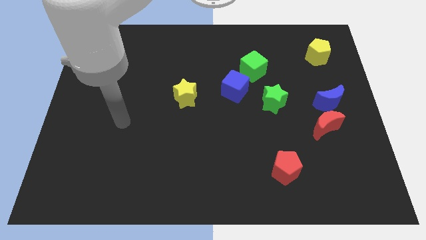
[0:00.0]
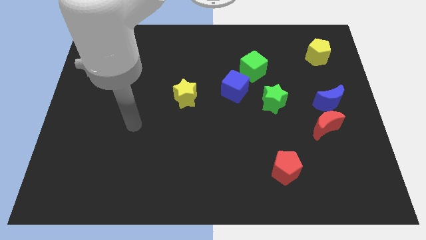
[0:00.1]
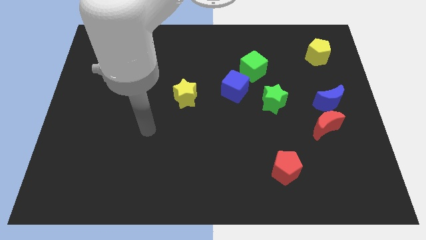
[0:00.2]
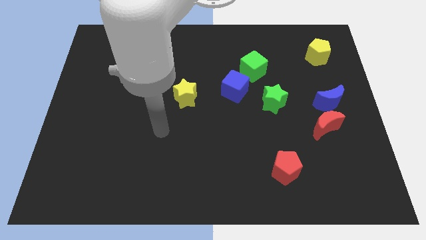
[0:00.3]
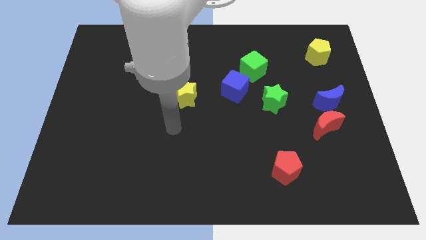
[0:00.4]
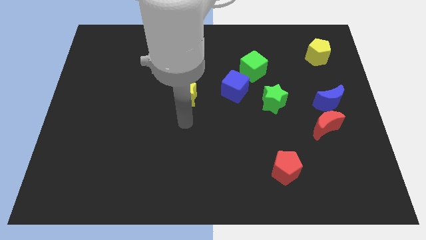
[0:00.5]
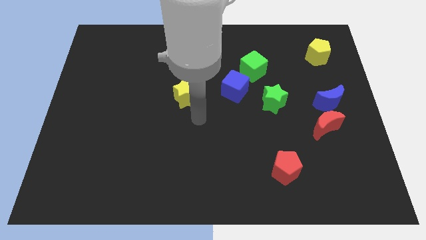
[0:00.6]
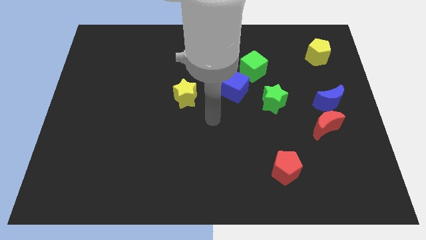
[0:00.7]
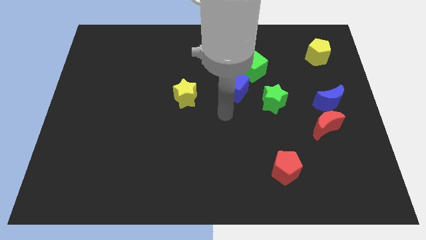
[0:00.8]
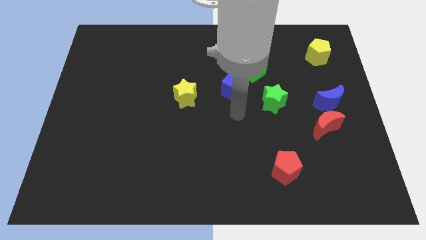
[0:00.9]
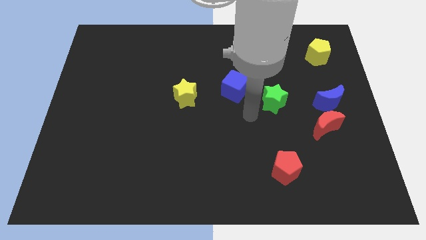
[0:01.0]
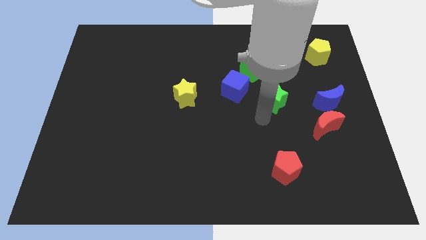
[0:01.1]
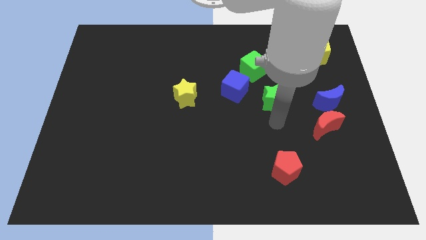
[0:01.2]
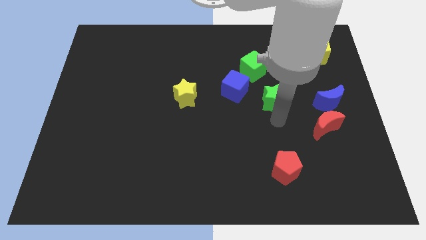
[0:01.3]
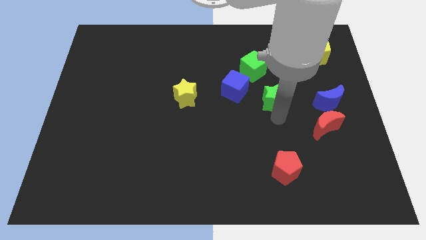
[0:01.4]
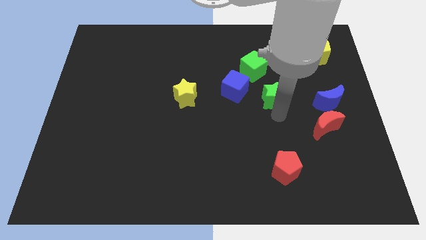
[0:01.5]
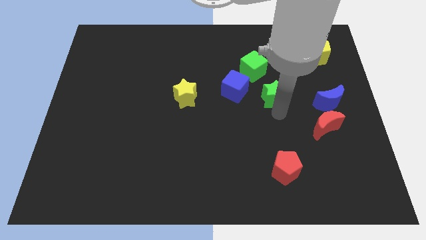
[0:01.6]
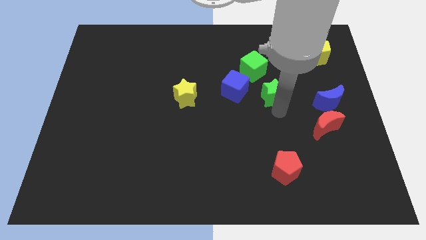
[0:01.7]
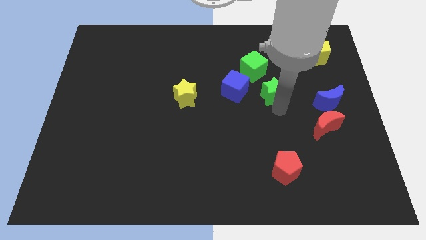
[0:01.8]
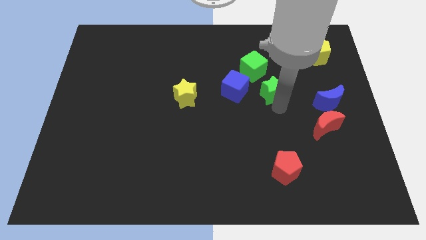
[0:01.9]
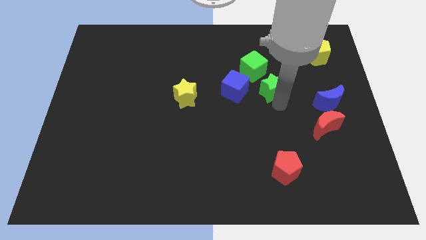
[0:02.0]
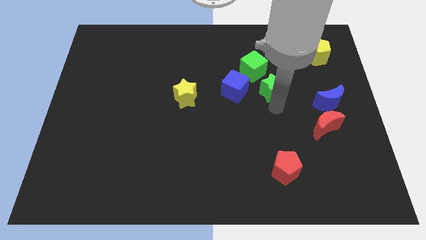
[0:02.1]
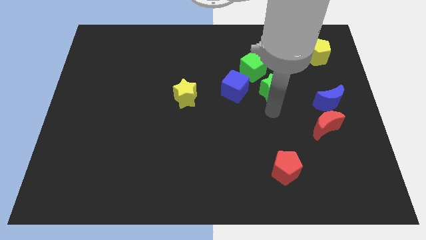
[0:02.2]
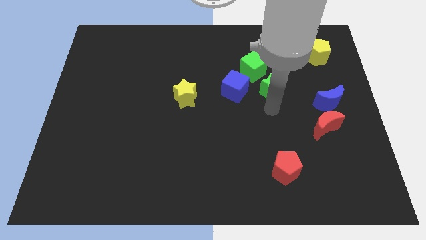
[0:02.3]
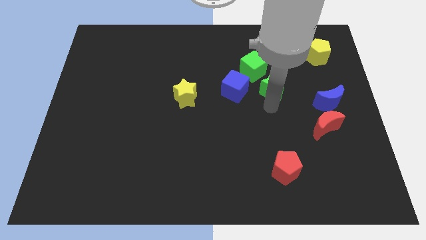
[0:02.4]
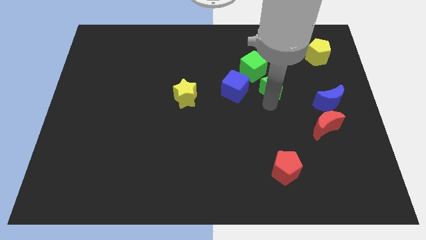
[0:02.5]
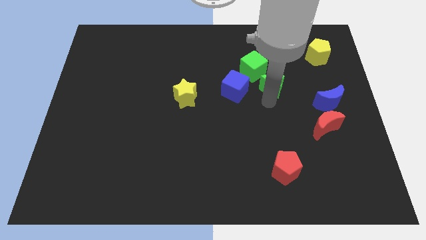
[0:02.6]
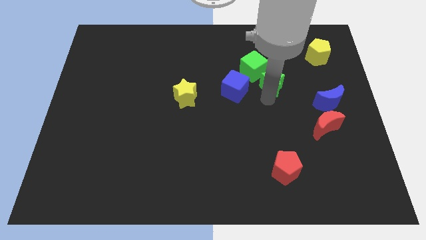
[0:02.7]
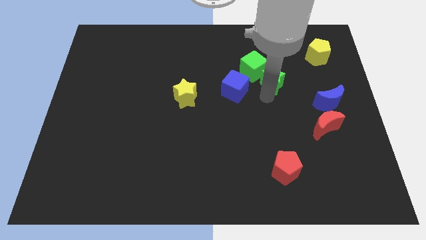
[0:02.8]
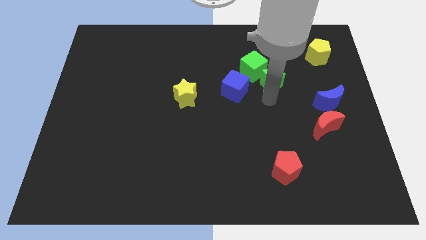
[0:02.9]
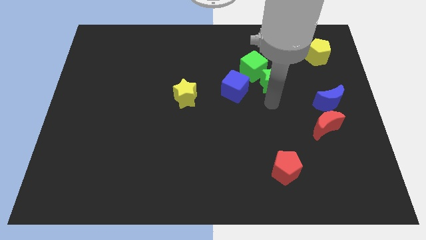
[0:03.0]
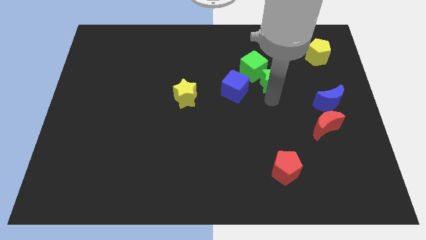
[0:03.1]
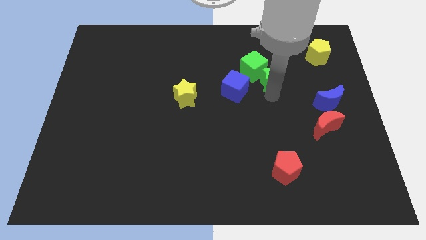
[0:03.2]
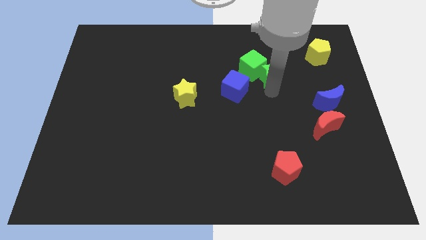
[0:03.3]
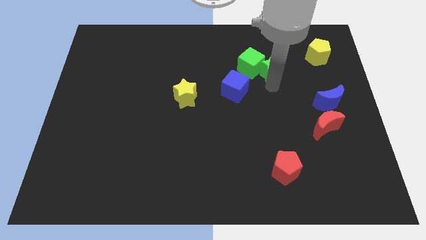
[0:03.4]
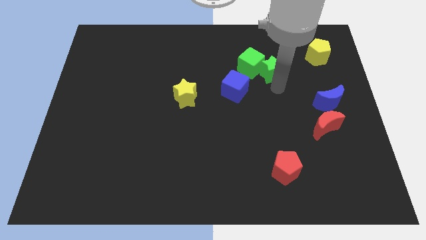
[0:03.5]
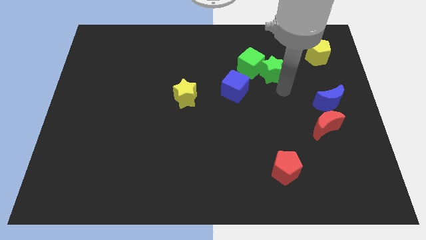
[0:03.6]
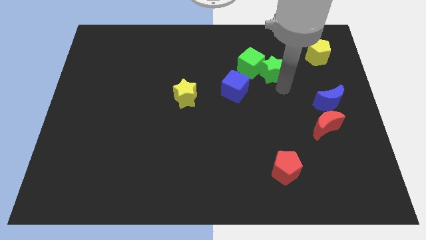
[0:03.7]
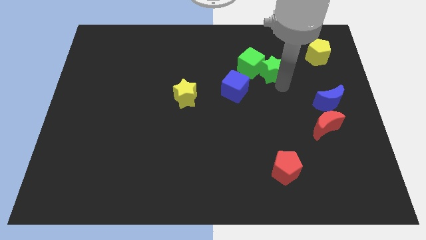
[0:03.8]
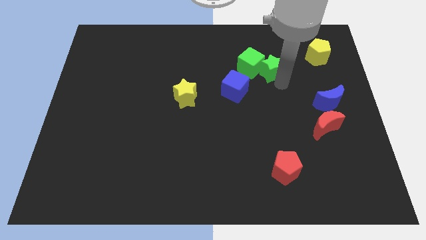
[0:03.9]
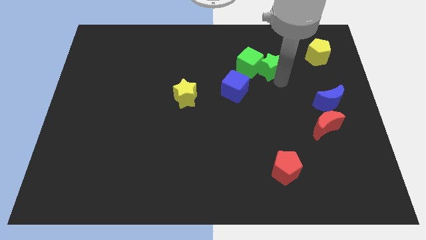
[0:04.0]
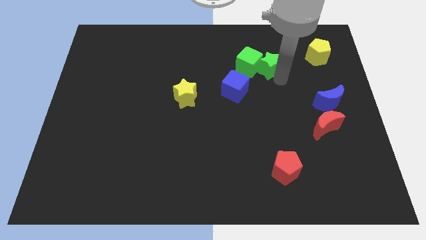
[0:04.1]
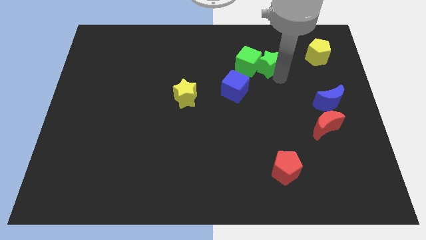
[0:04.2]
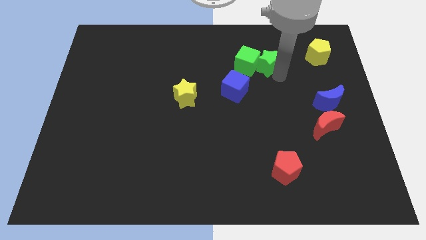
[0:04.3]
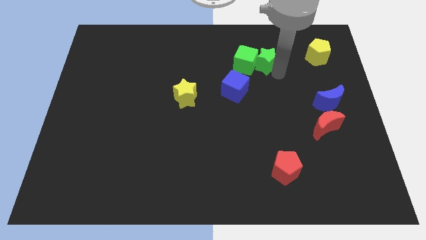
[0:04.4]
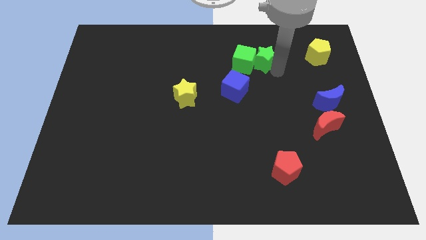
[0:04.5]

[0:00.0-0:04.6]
slightly move the green star upwards and left diagonally

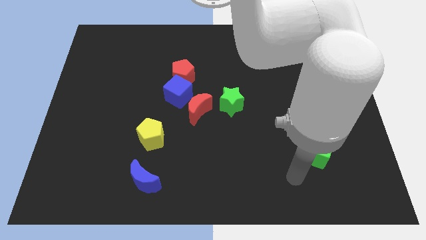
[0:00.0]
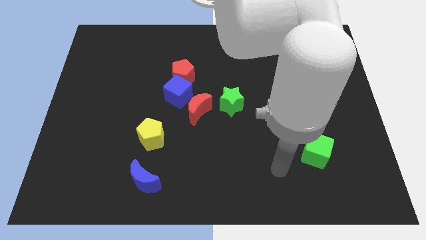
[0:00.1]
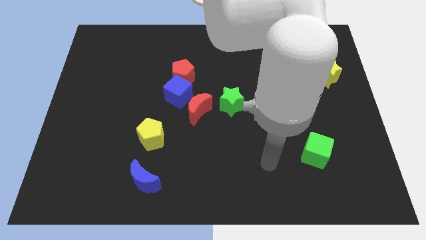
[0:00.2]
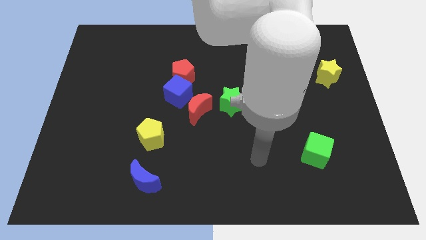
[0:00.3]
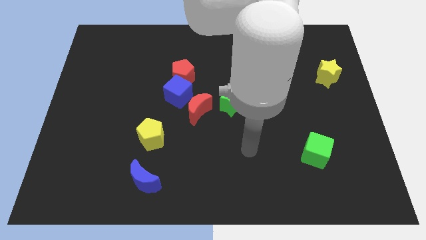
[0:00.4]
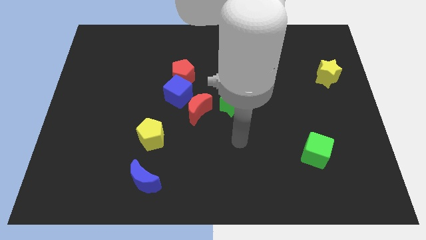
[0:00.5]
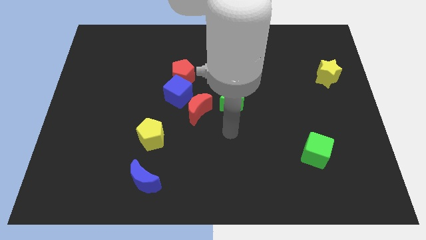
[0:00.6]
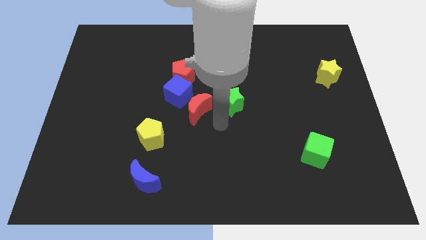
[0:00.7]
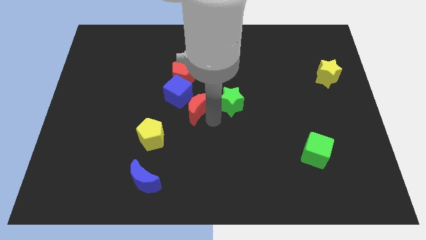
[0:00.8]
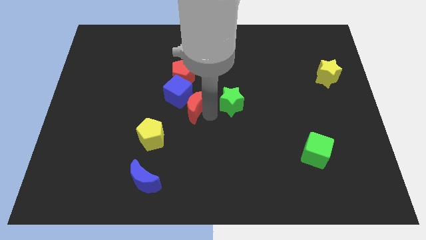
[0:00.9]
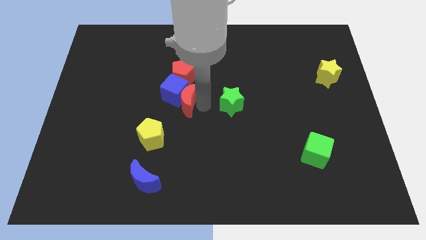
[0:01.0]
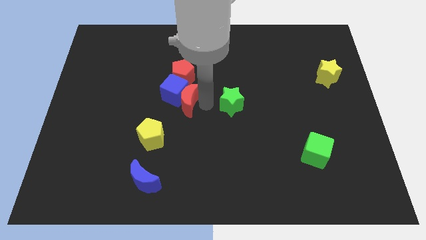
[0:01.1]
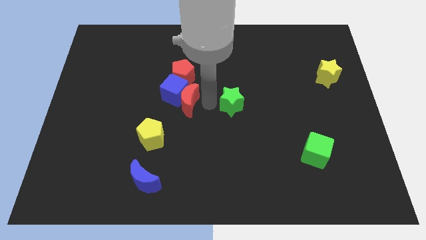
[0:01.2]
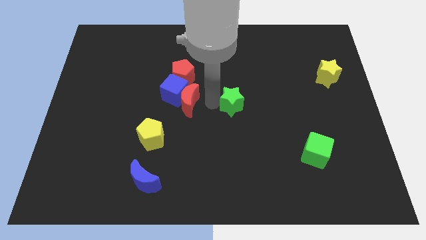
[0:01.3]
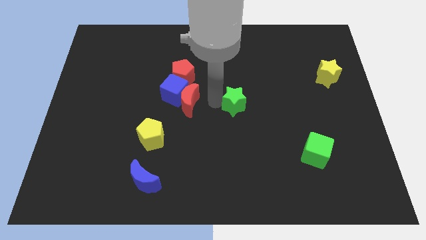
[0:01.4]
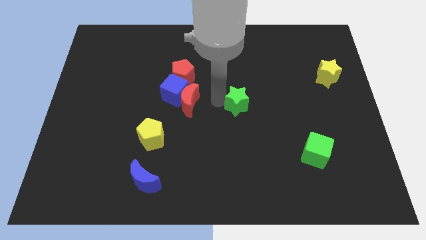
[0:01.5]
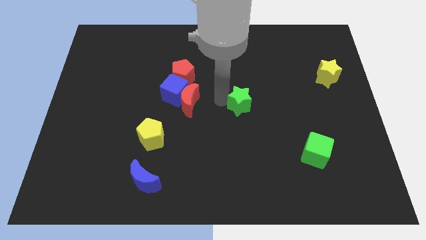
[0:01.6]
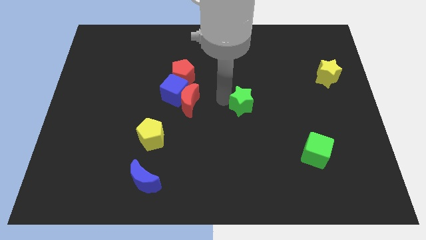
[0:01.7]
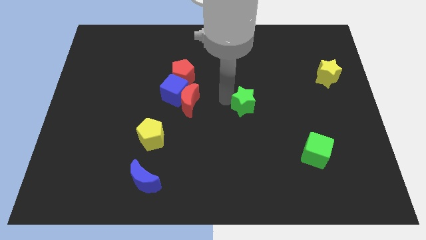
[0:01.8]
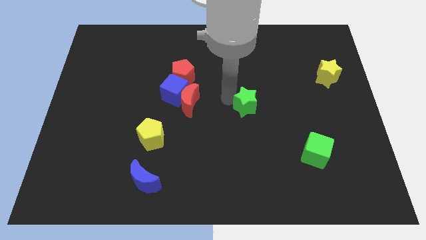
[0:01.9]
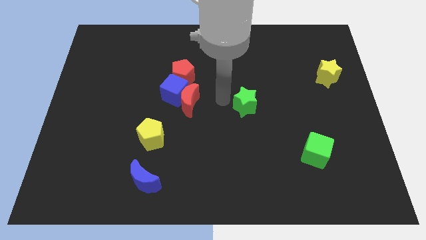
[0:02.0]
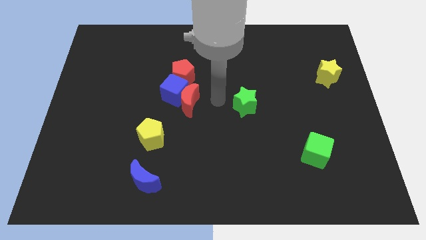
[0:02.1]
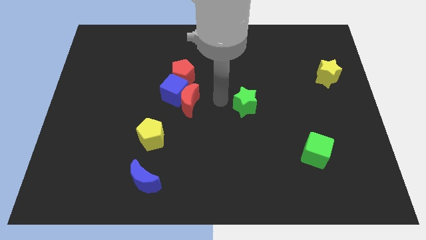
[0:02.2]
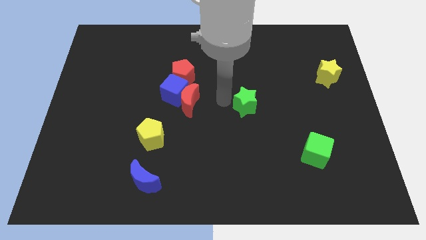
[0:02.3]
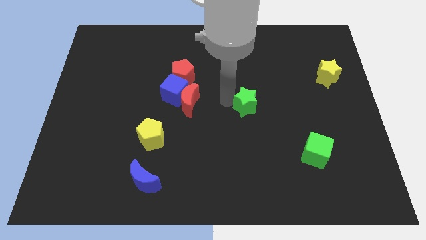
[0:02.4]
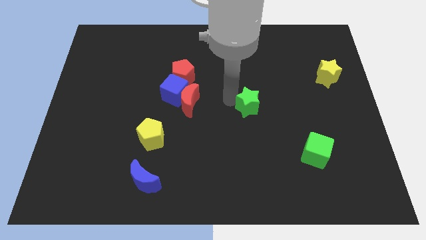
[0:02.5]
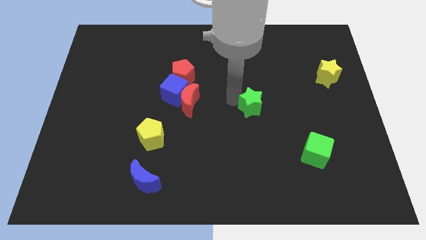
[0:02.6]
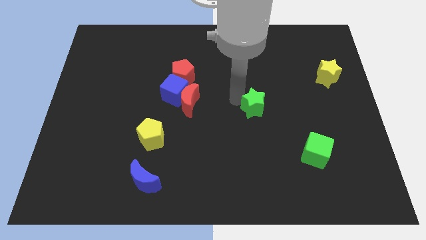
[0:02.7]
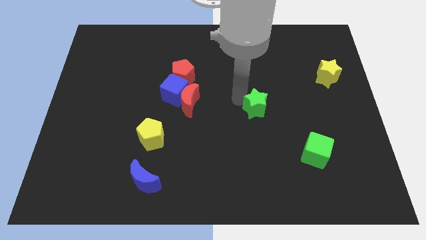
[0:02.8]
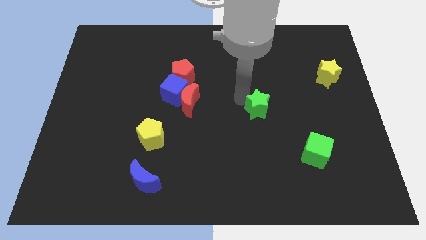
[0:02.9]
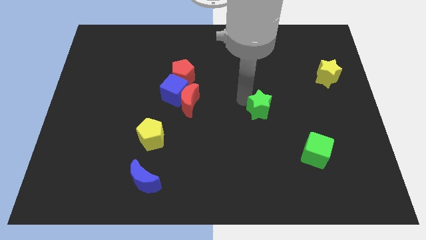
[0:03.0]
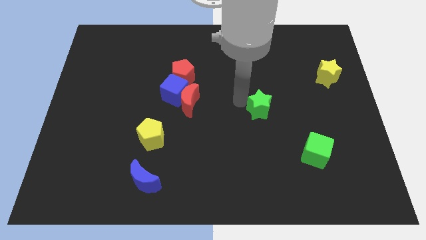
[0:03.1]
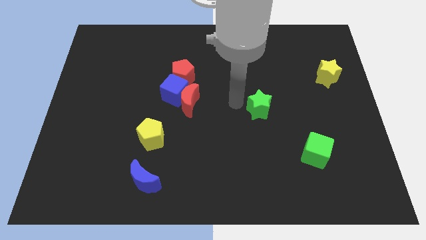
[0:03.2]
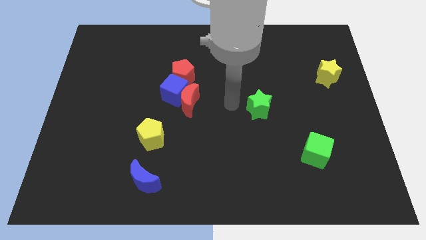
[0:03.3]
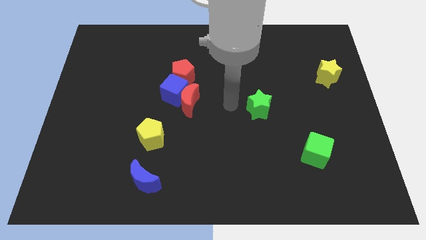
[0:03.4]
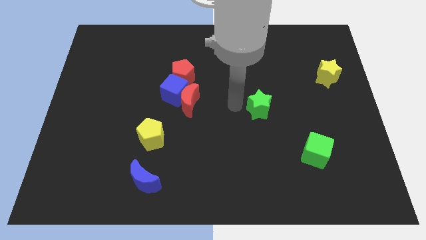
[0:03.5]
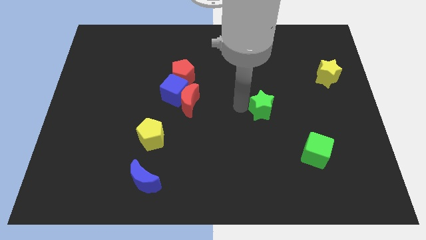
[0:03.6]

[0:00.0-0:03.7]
push the green star slightly right
